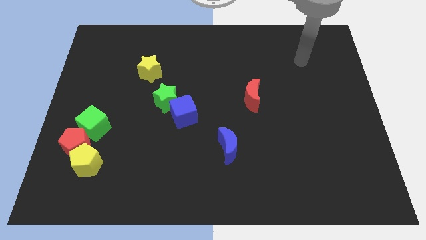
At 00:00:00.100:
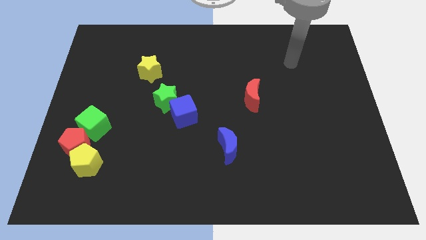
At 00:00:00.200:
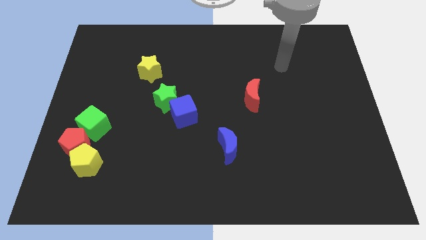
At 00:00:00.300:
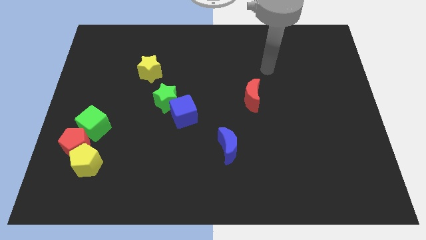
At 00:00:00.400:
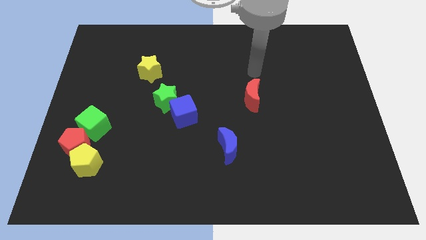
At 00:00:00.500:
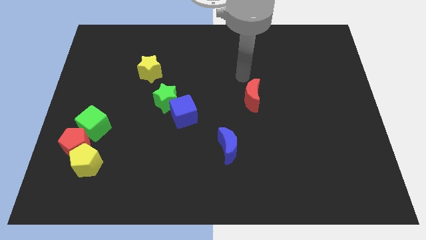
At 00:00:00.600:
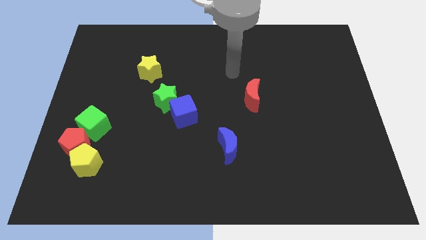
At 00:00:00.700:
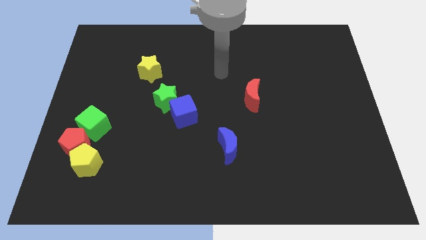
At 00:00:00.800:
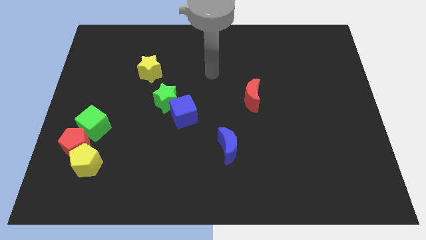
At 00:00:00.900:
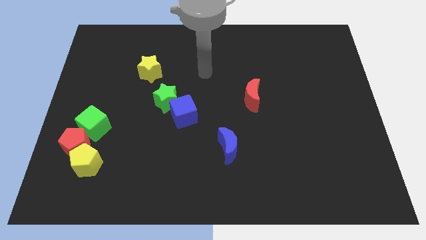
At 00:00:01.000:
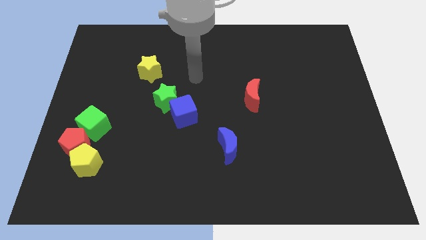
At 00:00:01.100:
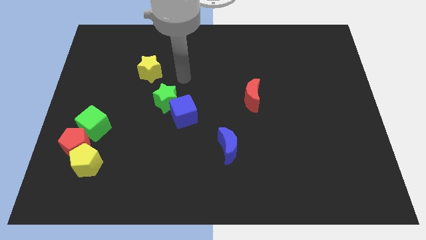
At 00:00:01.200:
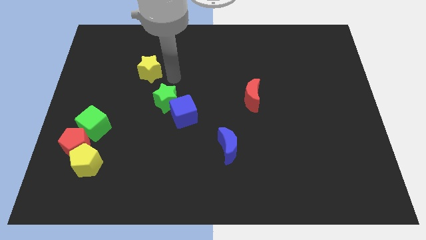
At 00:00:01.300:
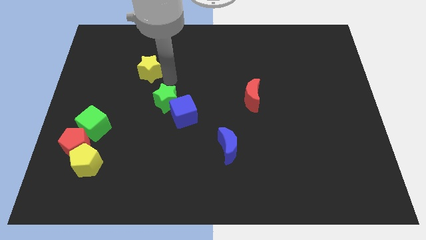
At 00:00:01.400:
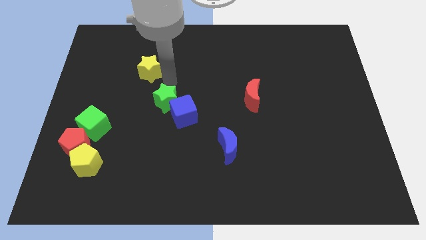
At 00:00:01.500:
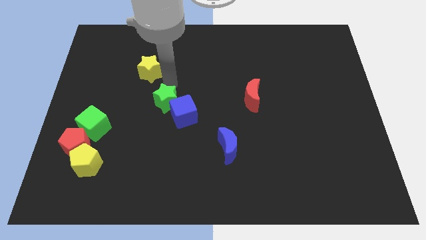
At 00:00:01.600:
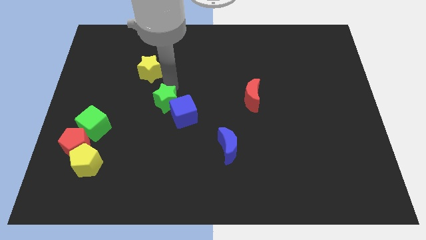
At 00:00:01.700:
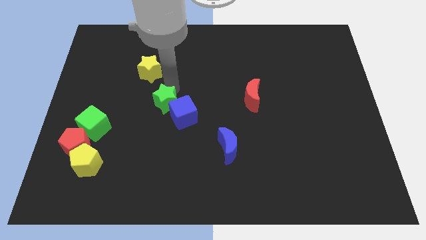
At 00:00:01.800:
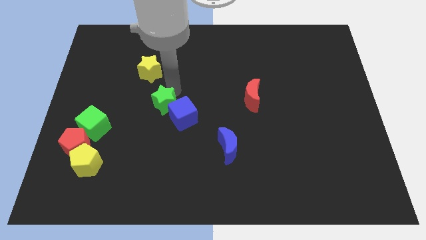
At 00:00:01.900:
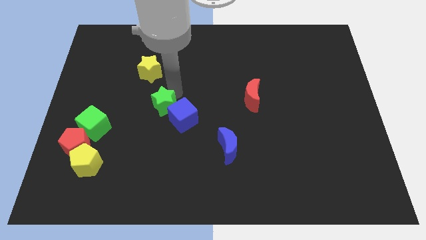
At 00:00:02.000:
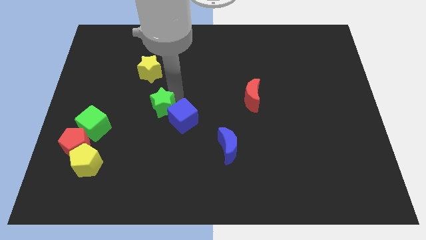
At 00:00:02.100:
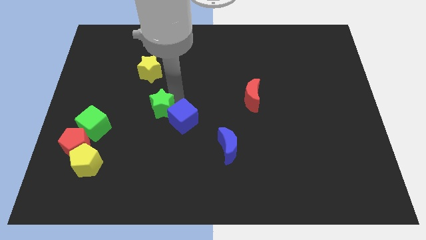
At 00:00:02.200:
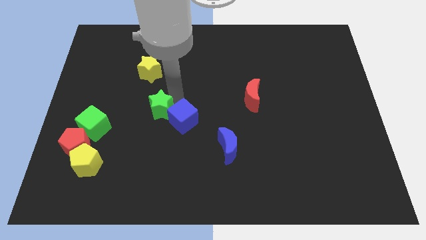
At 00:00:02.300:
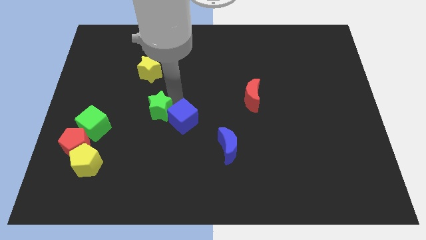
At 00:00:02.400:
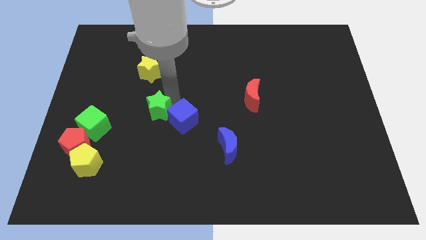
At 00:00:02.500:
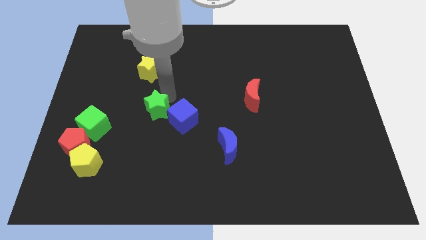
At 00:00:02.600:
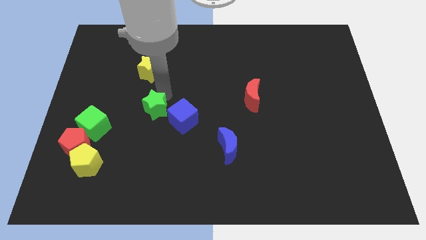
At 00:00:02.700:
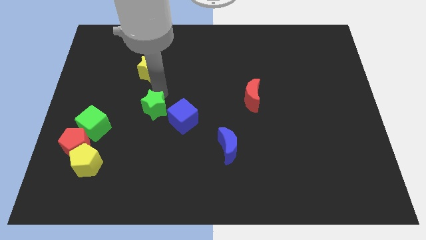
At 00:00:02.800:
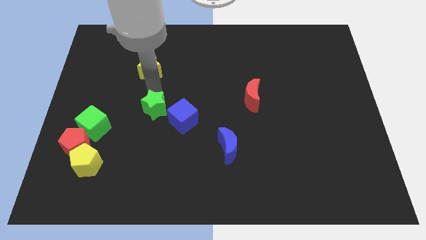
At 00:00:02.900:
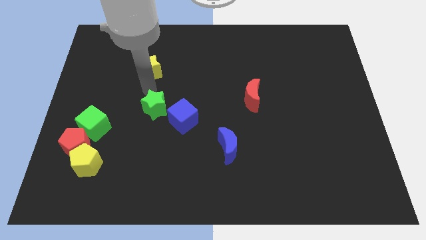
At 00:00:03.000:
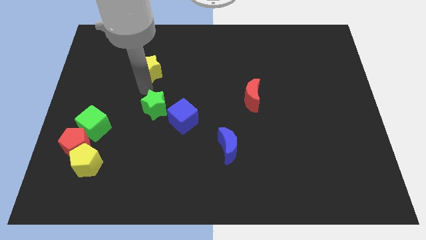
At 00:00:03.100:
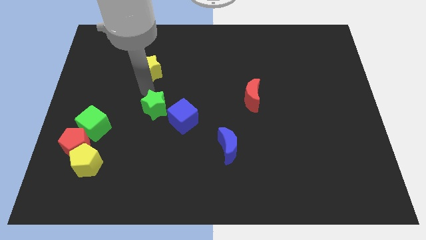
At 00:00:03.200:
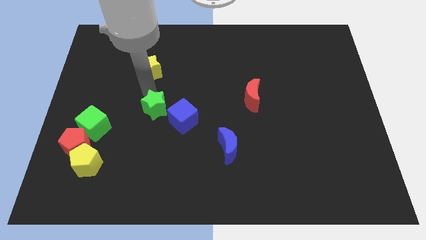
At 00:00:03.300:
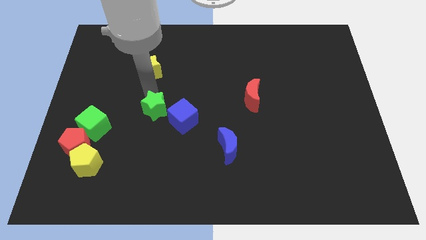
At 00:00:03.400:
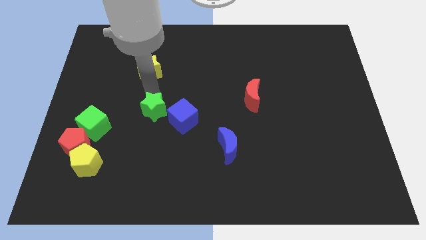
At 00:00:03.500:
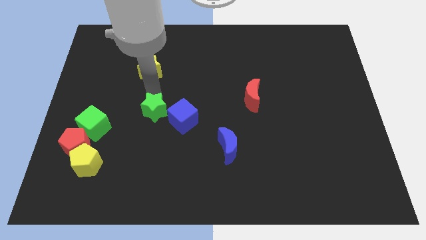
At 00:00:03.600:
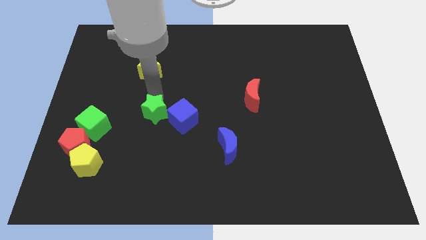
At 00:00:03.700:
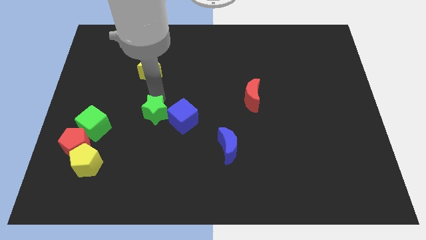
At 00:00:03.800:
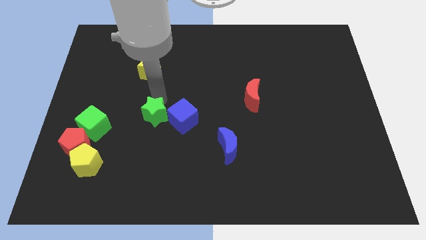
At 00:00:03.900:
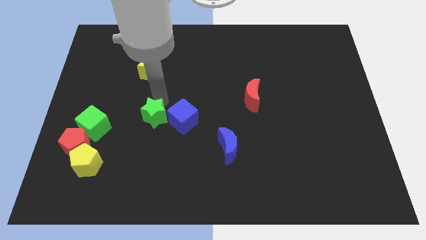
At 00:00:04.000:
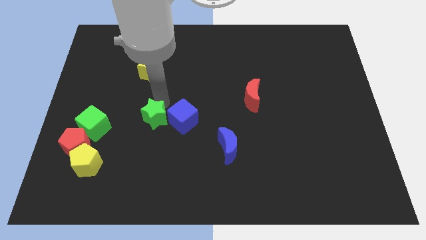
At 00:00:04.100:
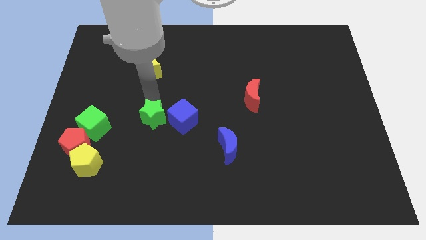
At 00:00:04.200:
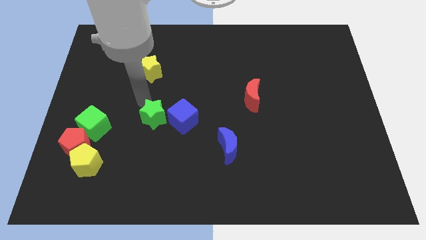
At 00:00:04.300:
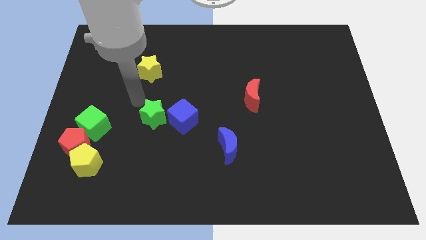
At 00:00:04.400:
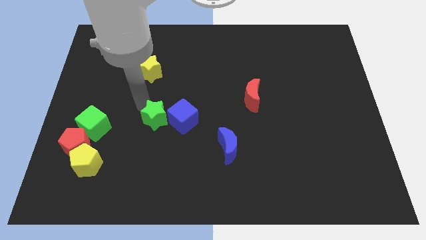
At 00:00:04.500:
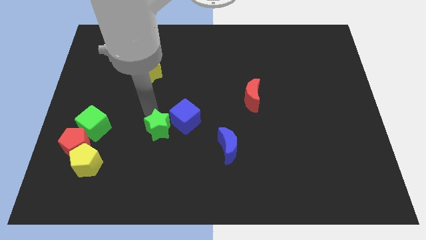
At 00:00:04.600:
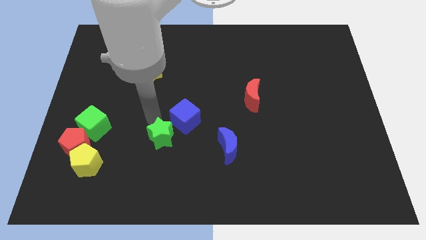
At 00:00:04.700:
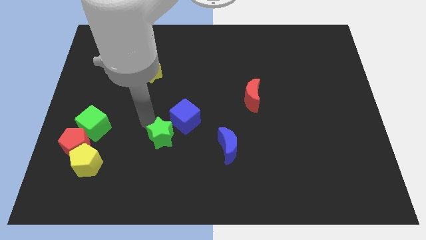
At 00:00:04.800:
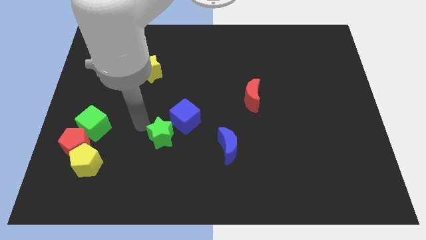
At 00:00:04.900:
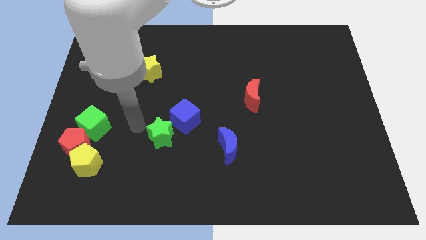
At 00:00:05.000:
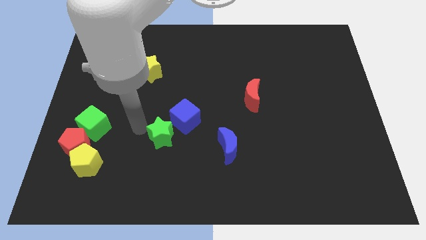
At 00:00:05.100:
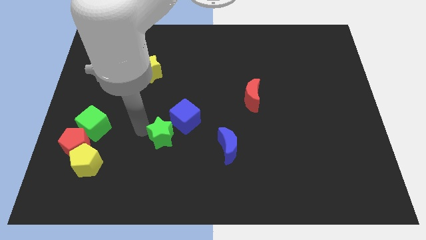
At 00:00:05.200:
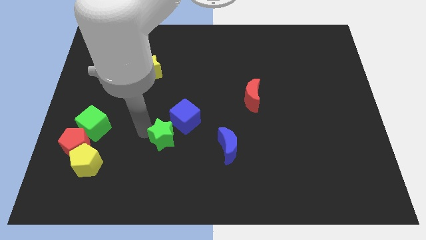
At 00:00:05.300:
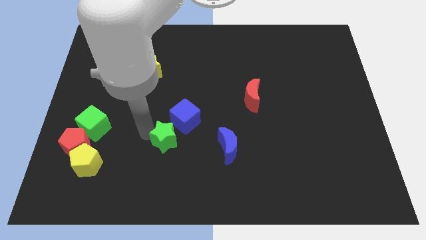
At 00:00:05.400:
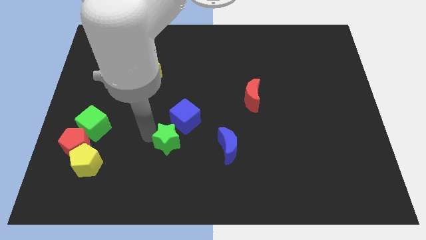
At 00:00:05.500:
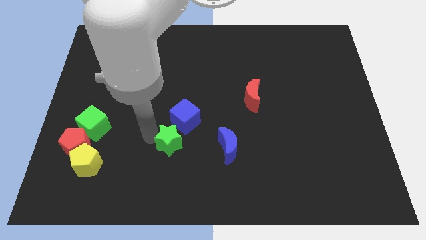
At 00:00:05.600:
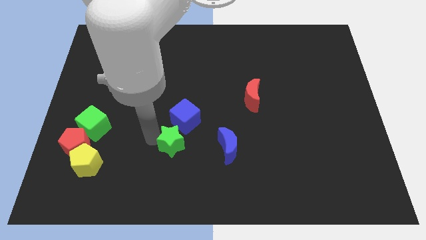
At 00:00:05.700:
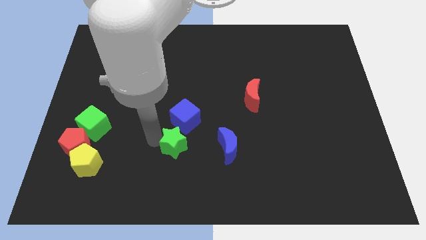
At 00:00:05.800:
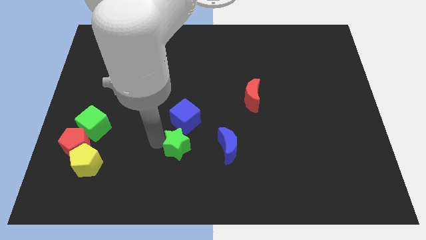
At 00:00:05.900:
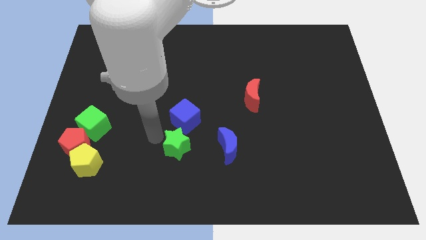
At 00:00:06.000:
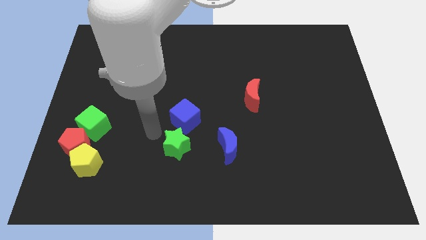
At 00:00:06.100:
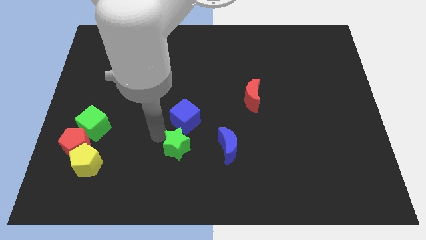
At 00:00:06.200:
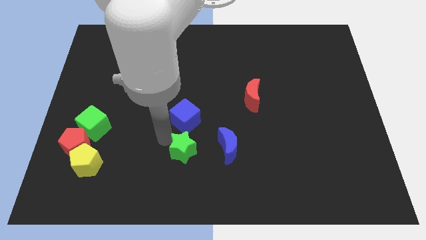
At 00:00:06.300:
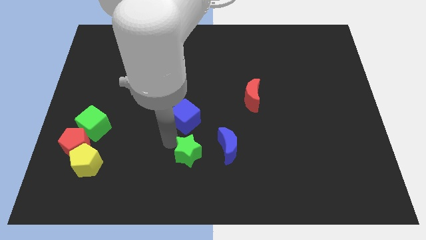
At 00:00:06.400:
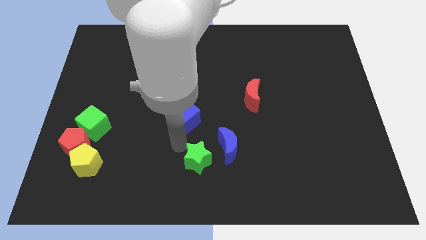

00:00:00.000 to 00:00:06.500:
slide the green star to the bottom side
